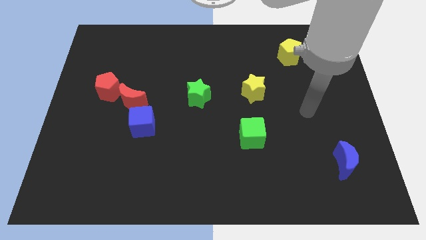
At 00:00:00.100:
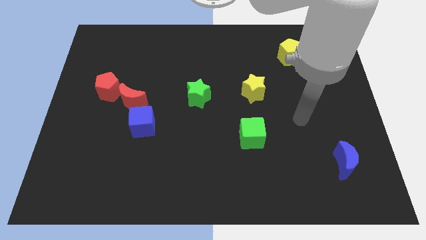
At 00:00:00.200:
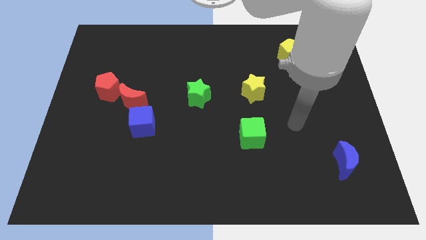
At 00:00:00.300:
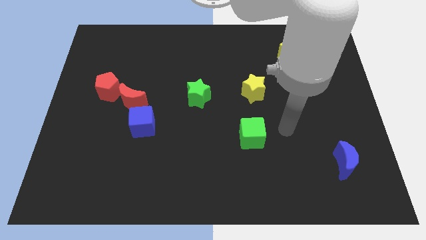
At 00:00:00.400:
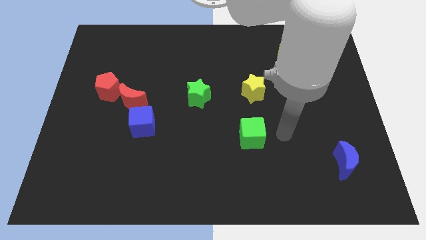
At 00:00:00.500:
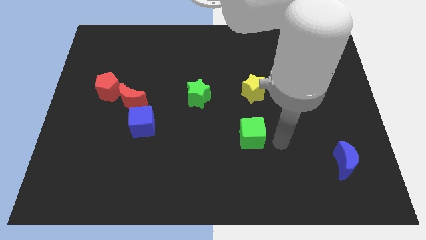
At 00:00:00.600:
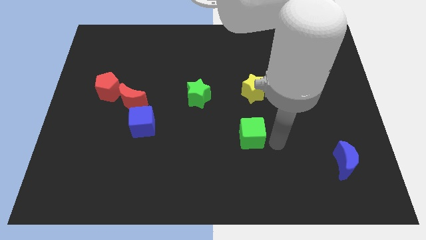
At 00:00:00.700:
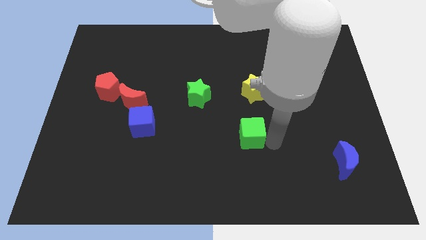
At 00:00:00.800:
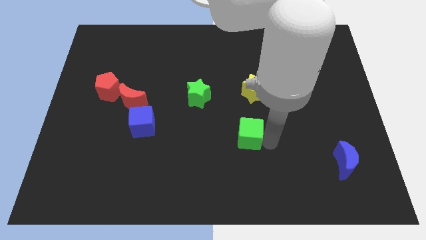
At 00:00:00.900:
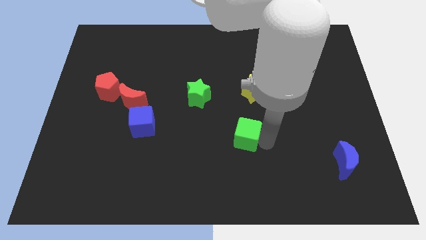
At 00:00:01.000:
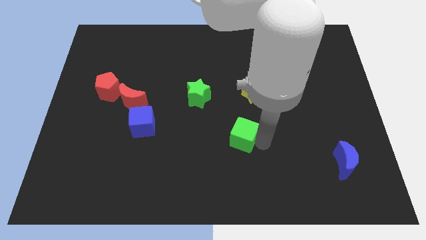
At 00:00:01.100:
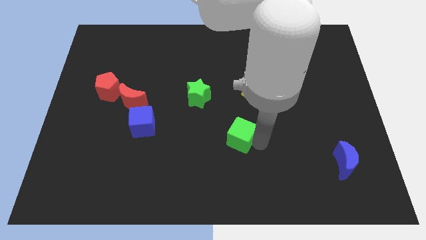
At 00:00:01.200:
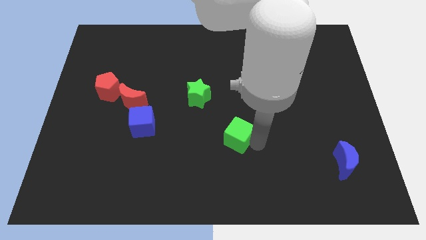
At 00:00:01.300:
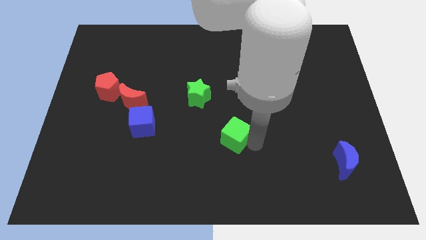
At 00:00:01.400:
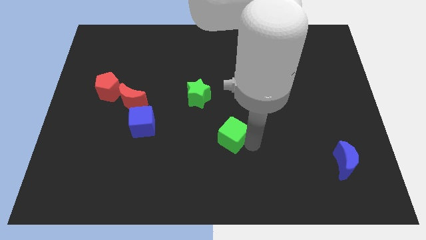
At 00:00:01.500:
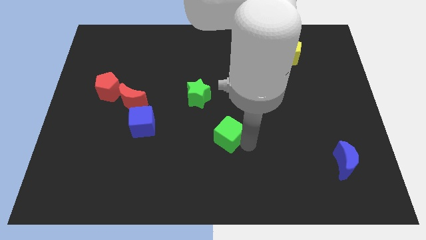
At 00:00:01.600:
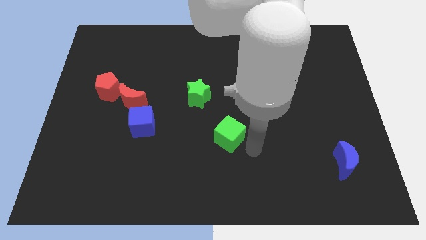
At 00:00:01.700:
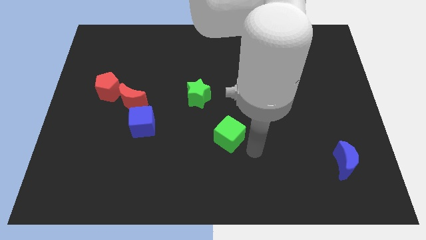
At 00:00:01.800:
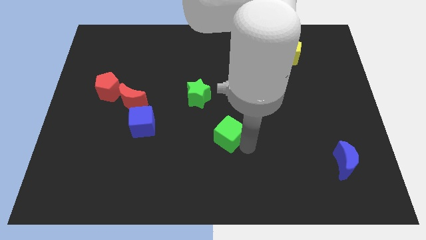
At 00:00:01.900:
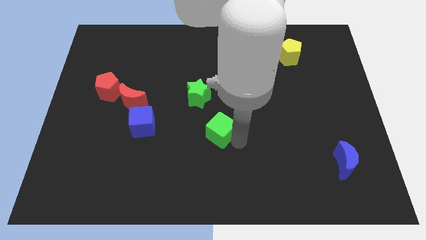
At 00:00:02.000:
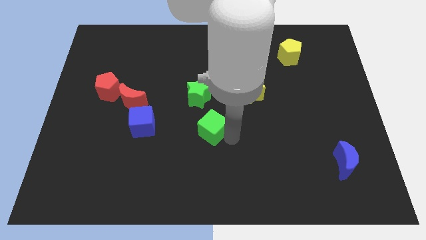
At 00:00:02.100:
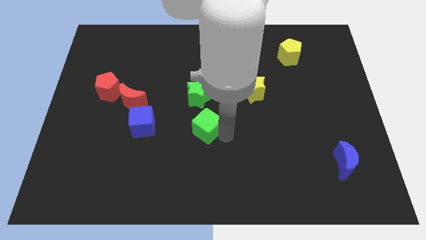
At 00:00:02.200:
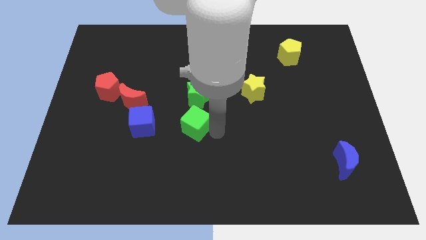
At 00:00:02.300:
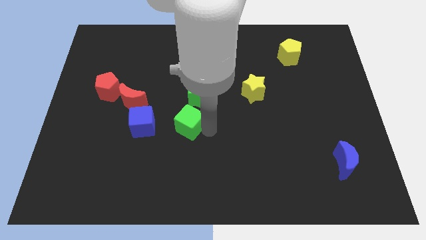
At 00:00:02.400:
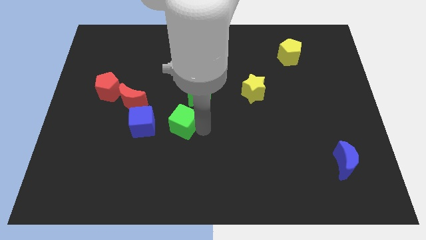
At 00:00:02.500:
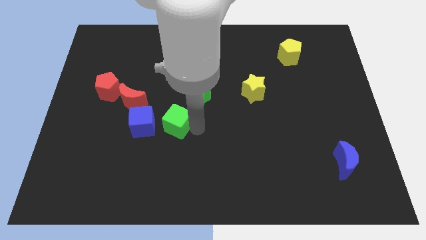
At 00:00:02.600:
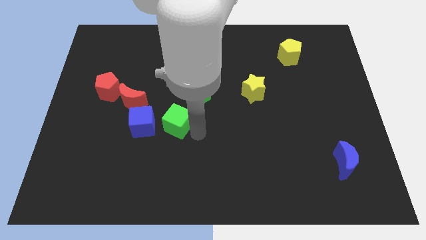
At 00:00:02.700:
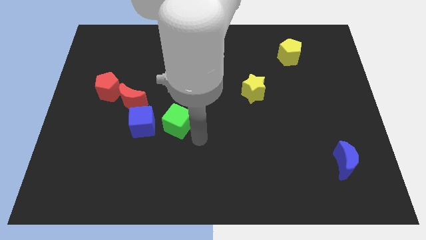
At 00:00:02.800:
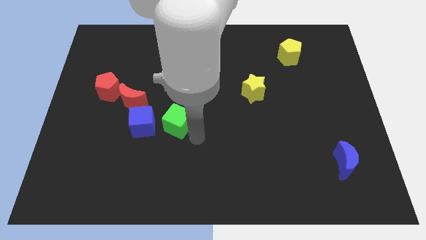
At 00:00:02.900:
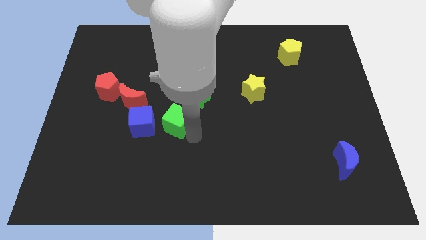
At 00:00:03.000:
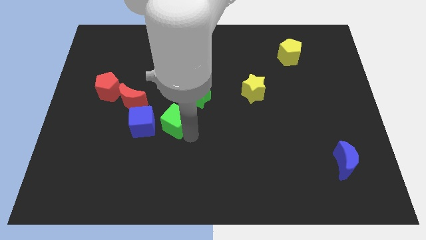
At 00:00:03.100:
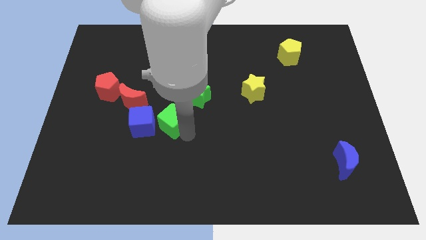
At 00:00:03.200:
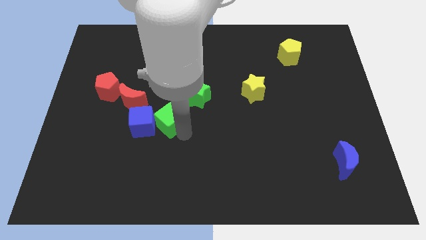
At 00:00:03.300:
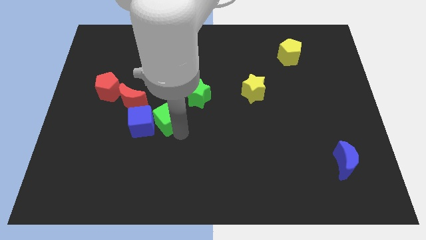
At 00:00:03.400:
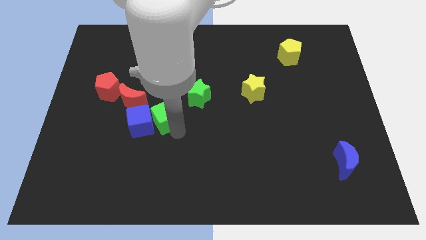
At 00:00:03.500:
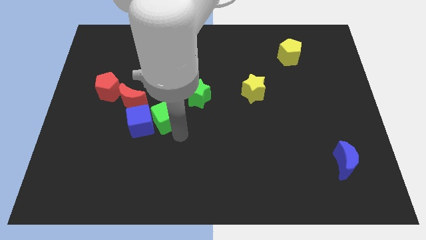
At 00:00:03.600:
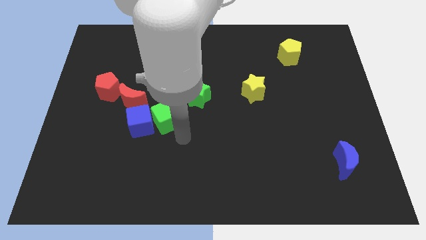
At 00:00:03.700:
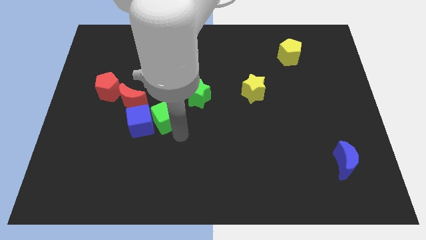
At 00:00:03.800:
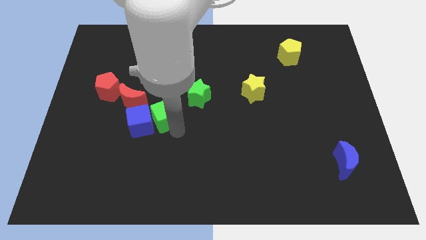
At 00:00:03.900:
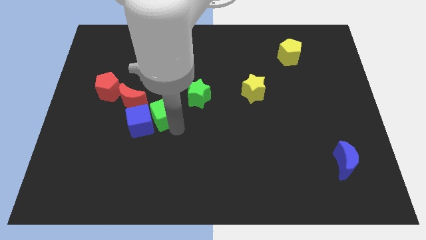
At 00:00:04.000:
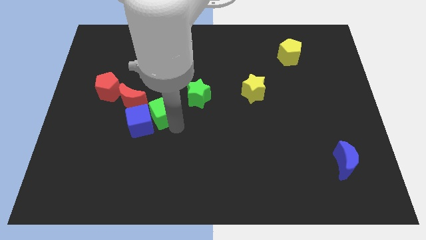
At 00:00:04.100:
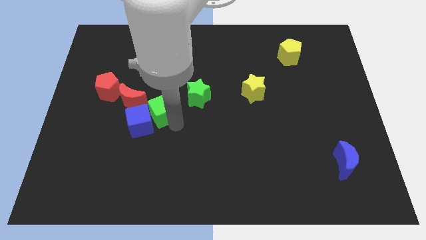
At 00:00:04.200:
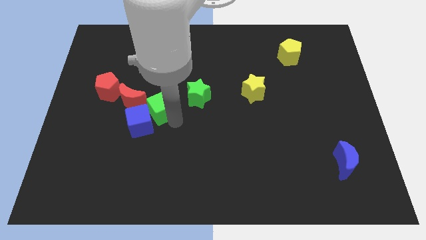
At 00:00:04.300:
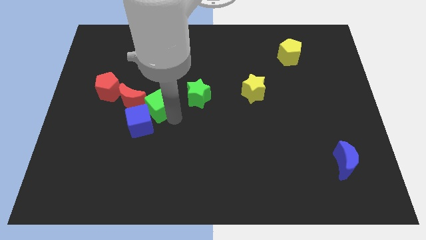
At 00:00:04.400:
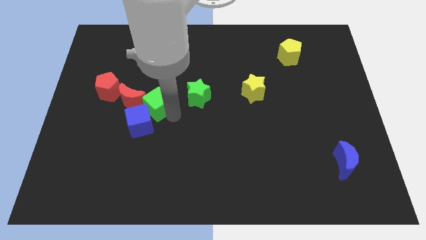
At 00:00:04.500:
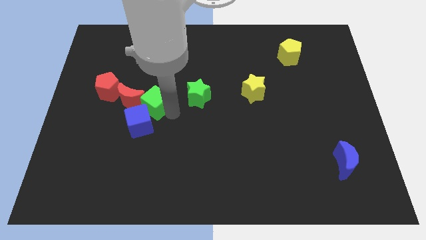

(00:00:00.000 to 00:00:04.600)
put the green cube next to the red moon

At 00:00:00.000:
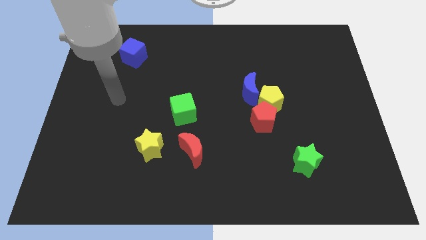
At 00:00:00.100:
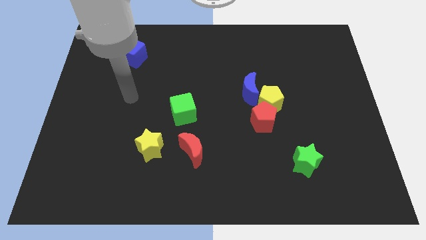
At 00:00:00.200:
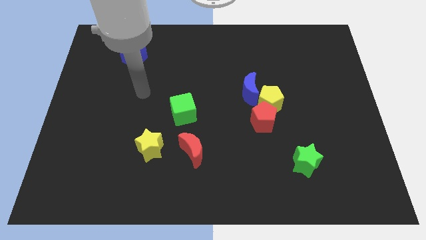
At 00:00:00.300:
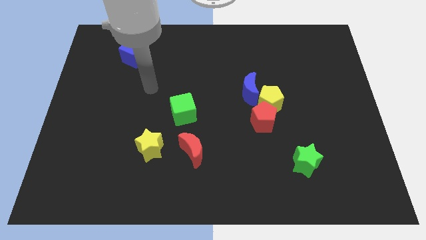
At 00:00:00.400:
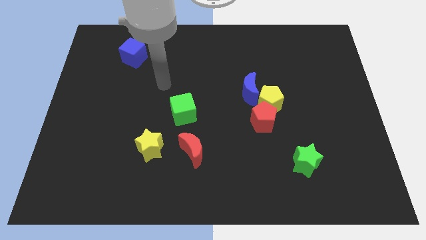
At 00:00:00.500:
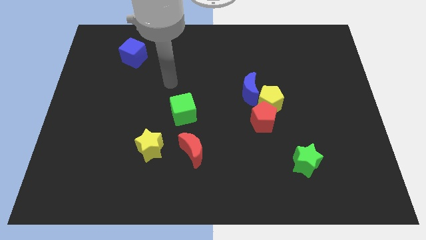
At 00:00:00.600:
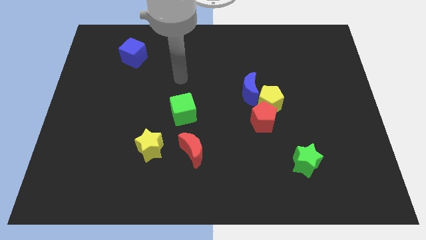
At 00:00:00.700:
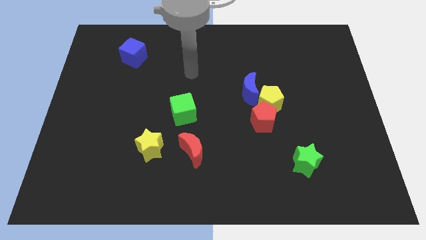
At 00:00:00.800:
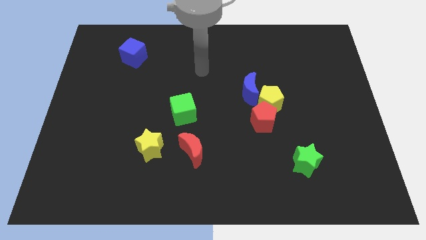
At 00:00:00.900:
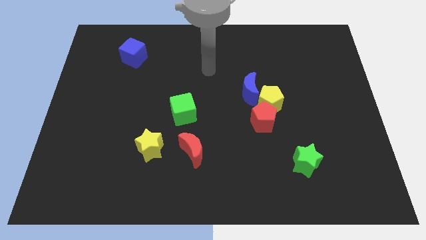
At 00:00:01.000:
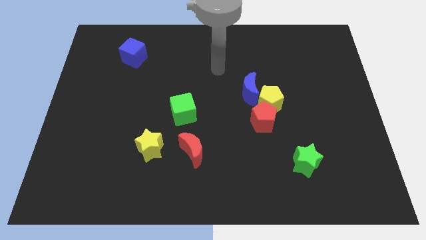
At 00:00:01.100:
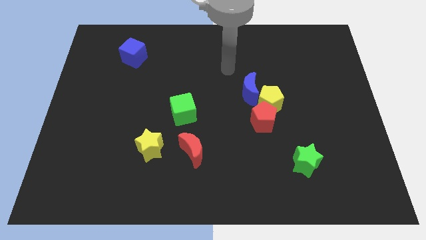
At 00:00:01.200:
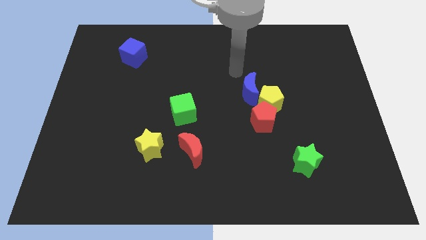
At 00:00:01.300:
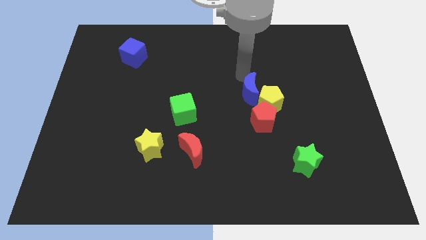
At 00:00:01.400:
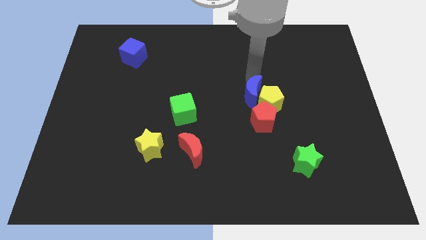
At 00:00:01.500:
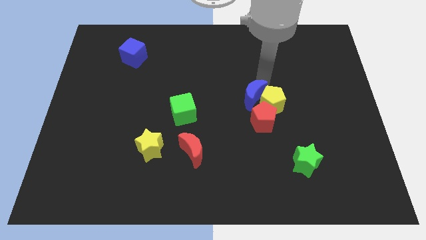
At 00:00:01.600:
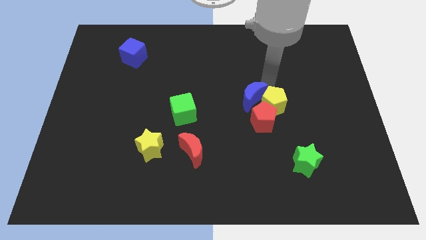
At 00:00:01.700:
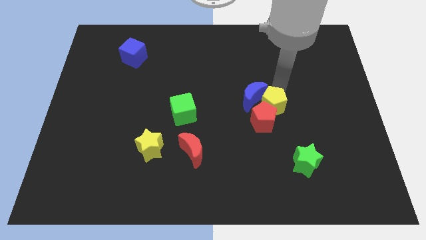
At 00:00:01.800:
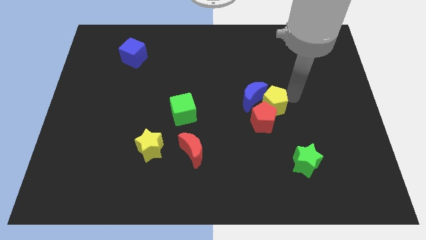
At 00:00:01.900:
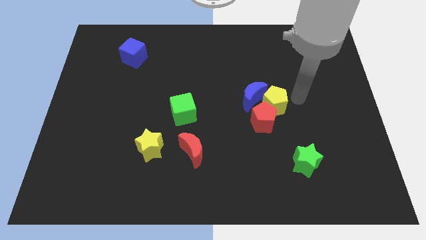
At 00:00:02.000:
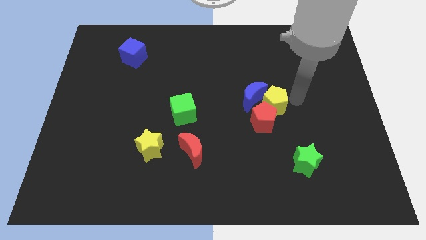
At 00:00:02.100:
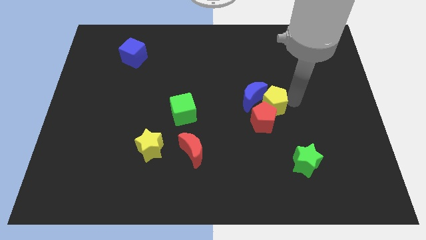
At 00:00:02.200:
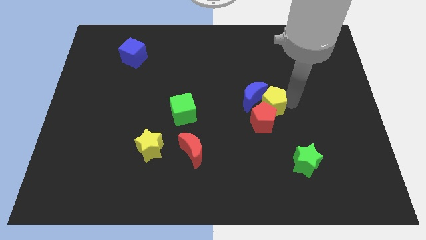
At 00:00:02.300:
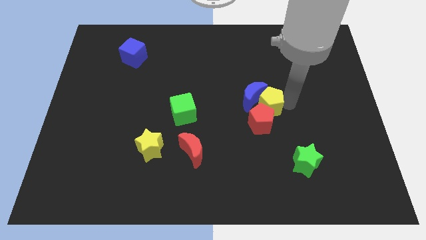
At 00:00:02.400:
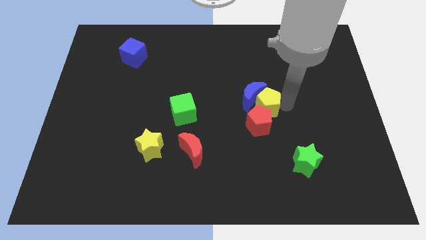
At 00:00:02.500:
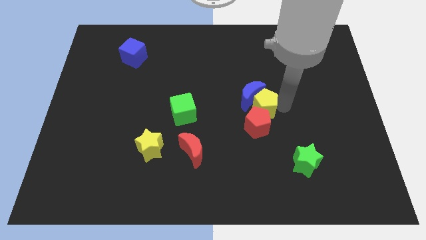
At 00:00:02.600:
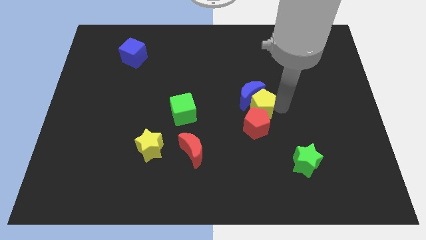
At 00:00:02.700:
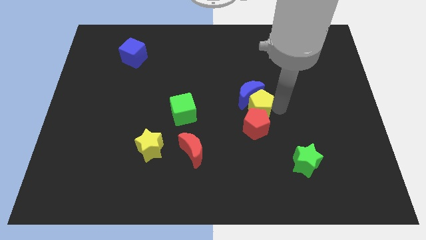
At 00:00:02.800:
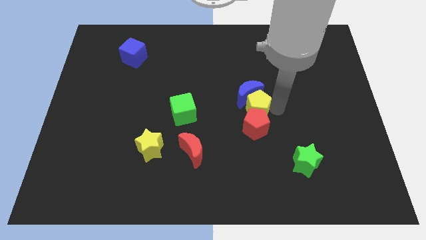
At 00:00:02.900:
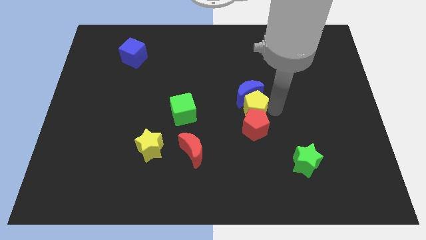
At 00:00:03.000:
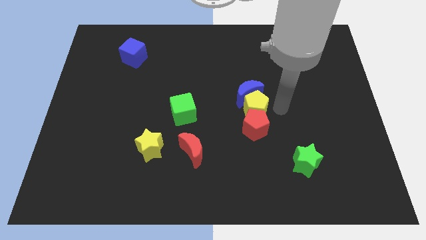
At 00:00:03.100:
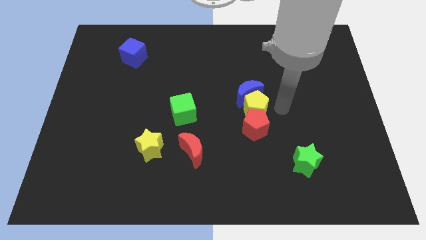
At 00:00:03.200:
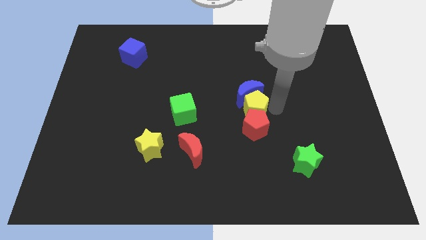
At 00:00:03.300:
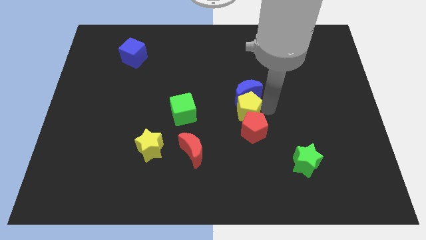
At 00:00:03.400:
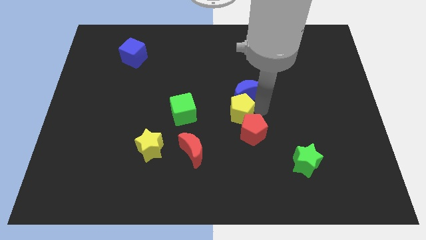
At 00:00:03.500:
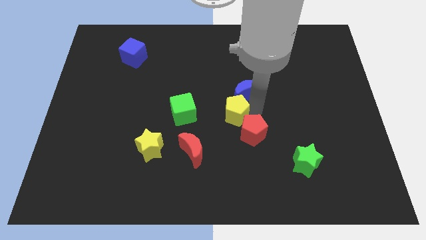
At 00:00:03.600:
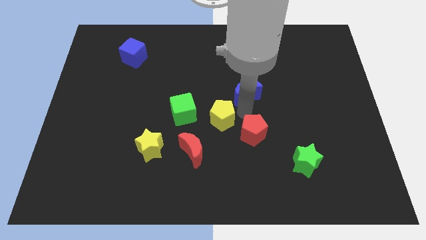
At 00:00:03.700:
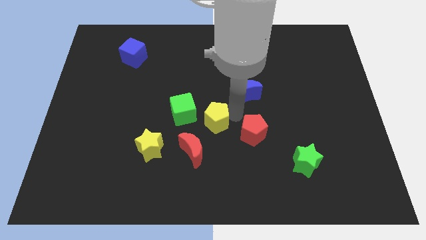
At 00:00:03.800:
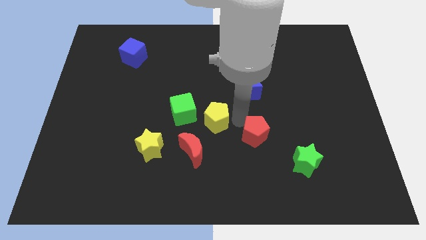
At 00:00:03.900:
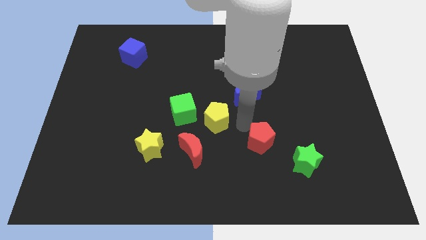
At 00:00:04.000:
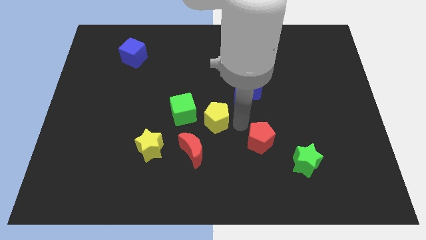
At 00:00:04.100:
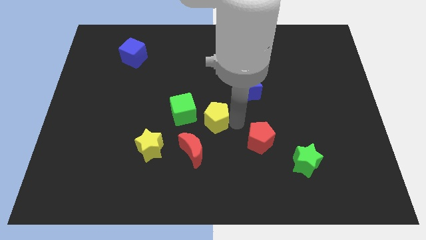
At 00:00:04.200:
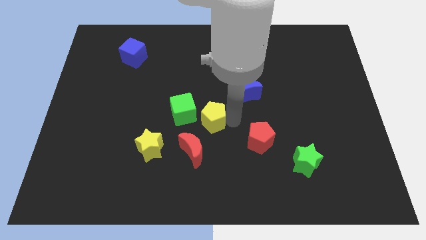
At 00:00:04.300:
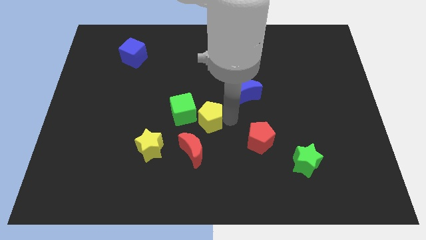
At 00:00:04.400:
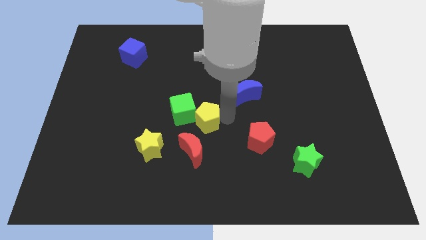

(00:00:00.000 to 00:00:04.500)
put the yellow pentagon towards the green cube
